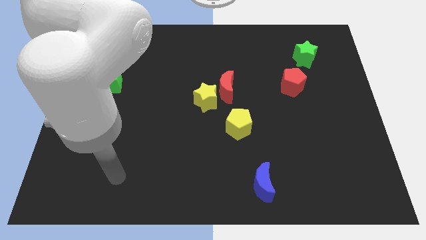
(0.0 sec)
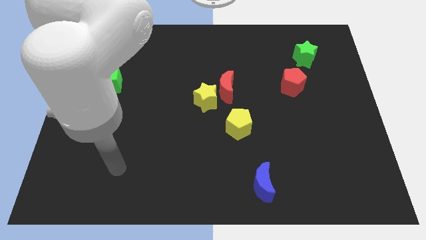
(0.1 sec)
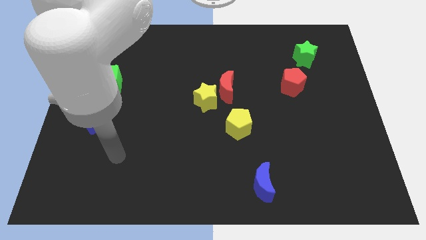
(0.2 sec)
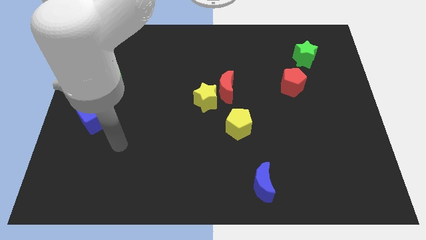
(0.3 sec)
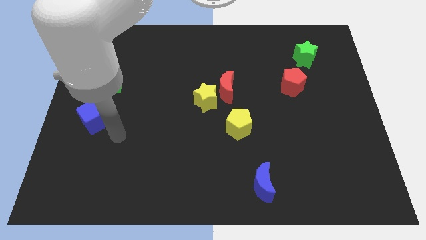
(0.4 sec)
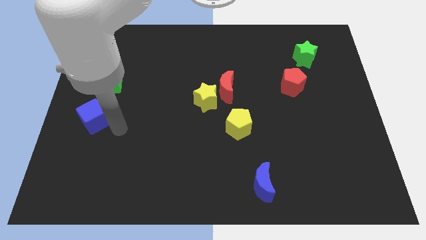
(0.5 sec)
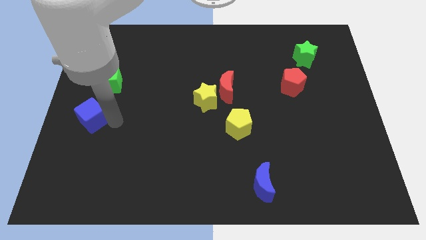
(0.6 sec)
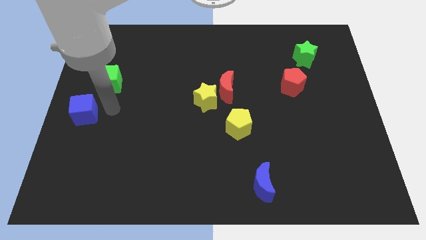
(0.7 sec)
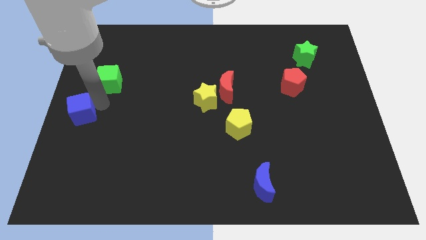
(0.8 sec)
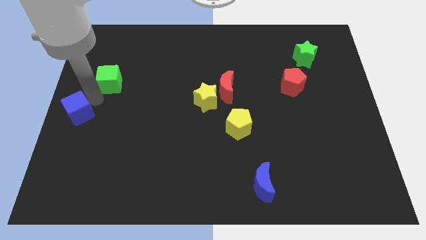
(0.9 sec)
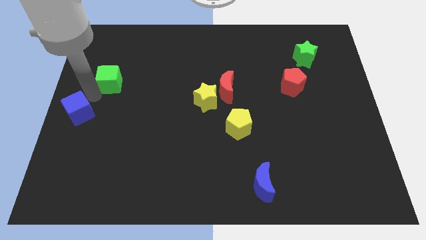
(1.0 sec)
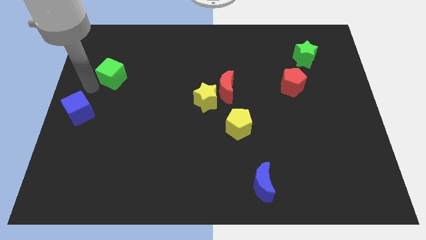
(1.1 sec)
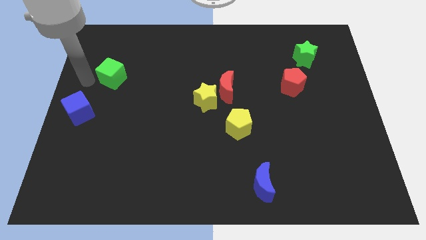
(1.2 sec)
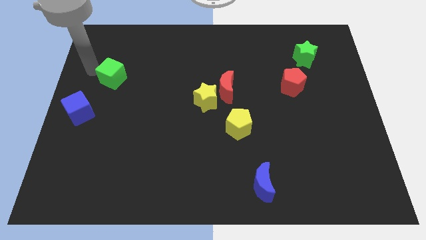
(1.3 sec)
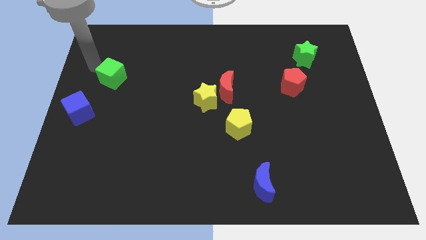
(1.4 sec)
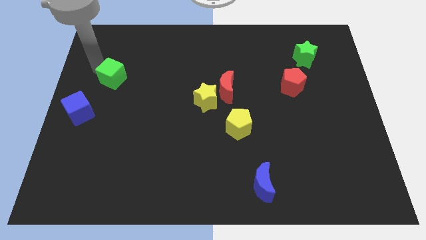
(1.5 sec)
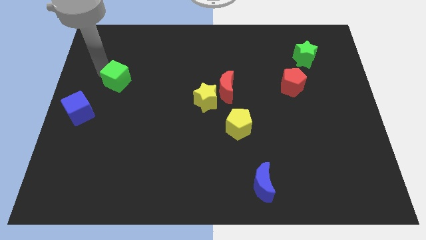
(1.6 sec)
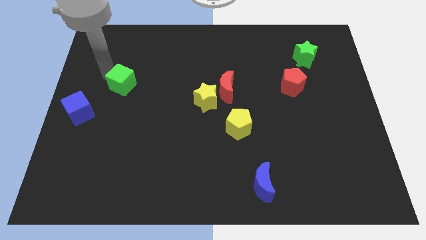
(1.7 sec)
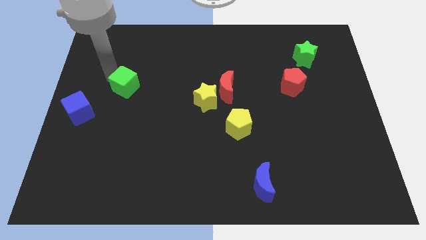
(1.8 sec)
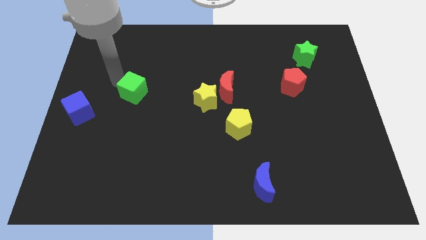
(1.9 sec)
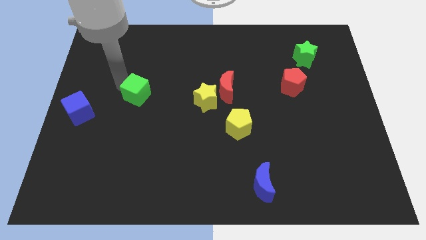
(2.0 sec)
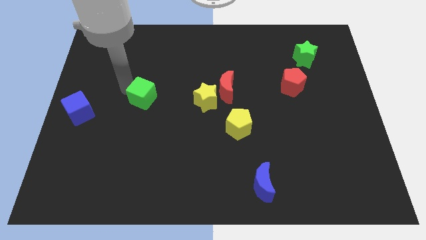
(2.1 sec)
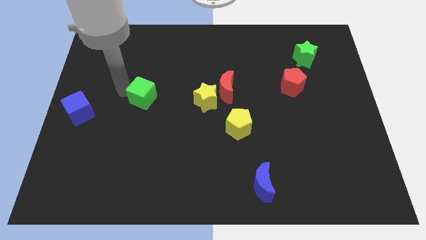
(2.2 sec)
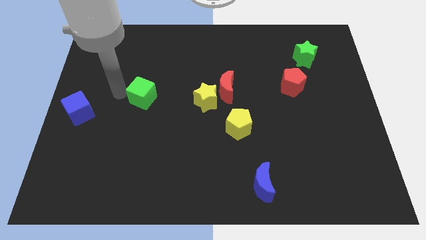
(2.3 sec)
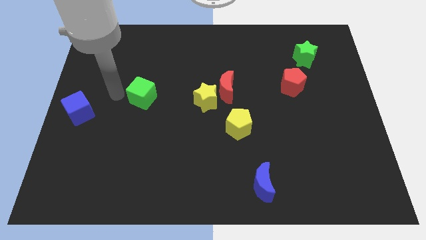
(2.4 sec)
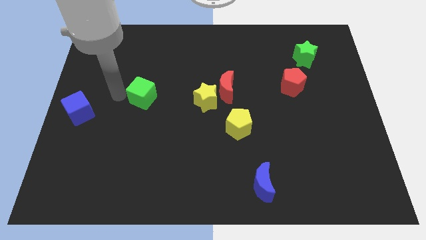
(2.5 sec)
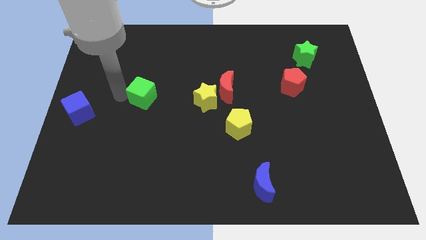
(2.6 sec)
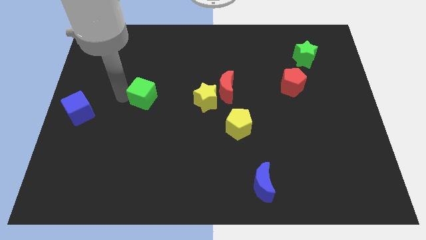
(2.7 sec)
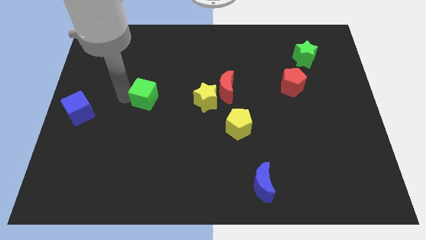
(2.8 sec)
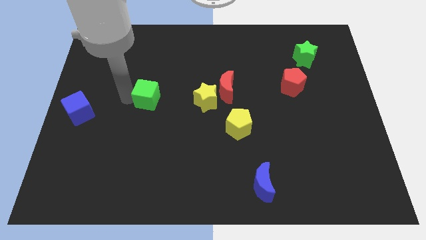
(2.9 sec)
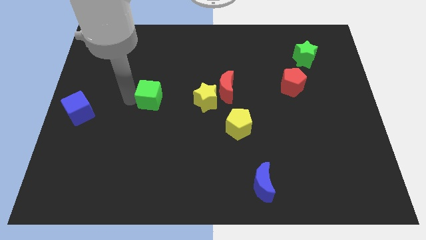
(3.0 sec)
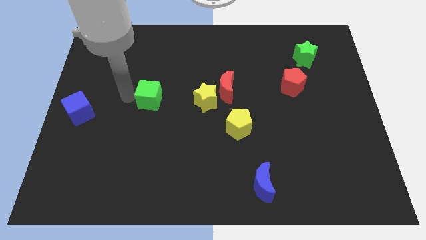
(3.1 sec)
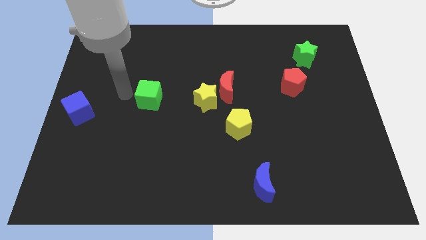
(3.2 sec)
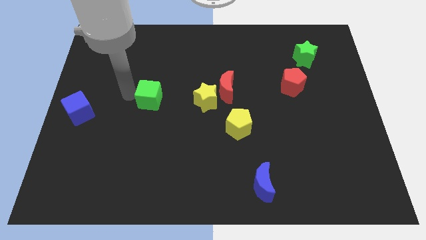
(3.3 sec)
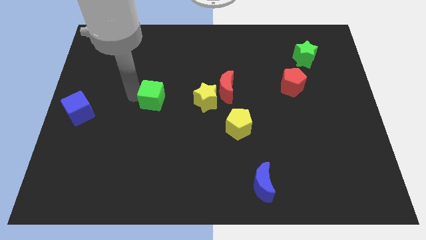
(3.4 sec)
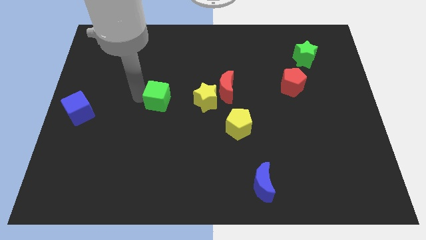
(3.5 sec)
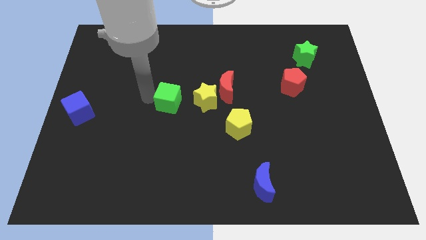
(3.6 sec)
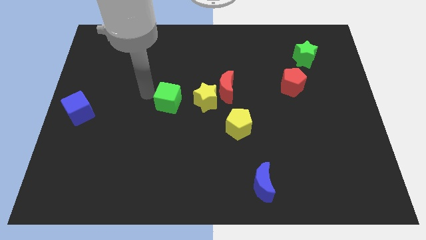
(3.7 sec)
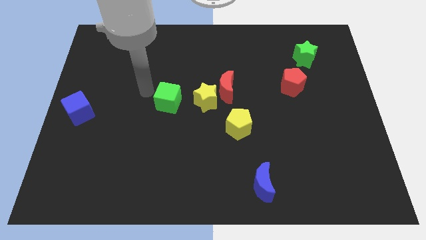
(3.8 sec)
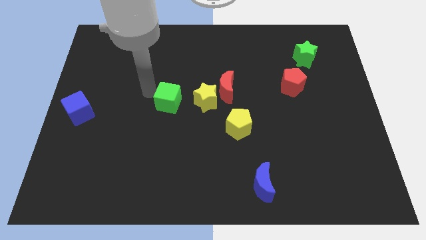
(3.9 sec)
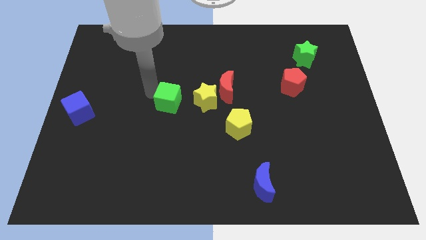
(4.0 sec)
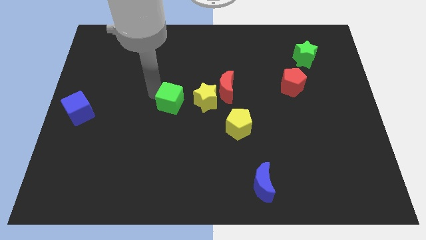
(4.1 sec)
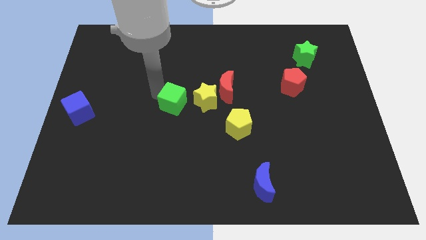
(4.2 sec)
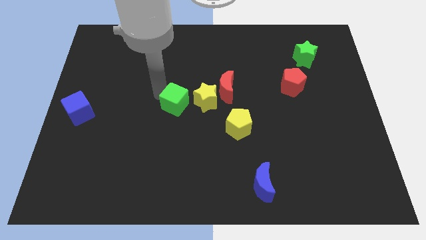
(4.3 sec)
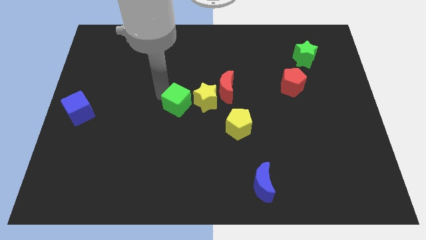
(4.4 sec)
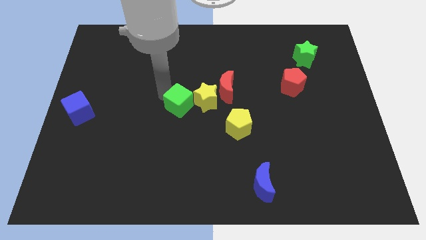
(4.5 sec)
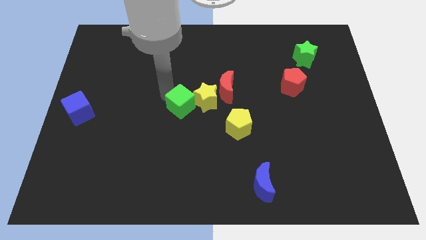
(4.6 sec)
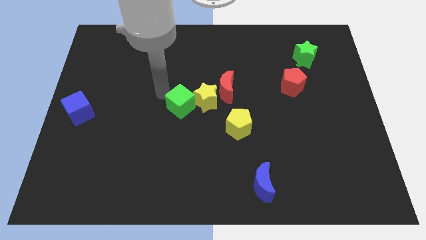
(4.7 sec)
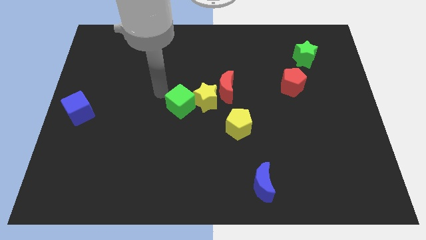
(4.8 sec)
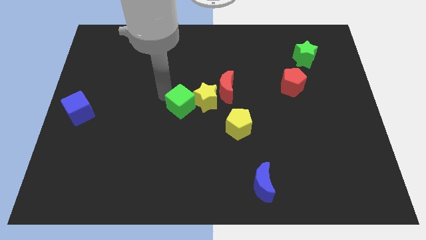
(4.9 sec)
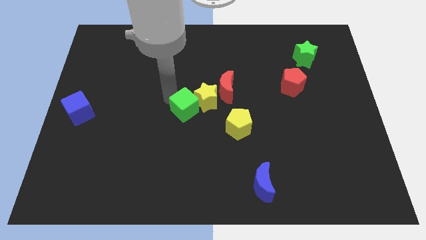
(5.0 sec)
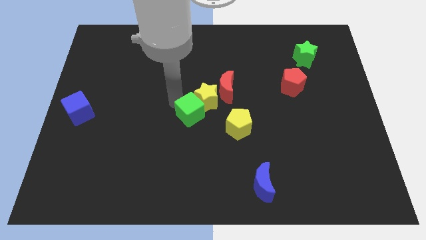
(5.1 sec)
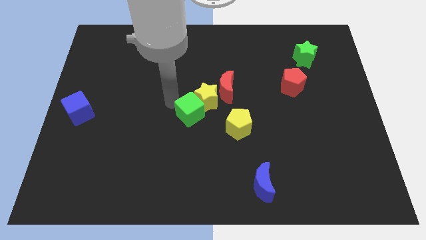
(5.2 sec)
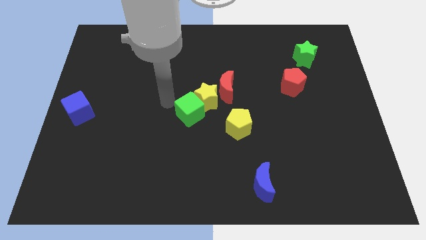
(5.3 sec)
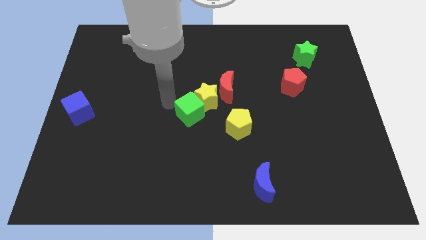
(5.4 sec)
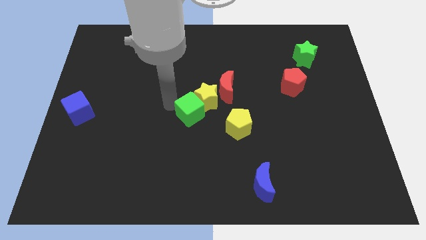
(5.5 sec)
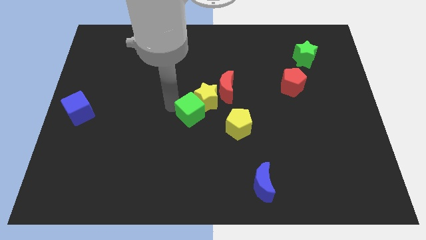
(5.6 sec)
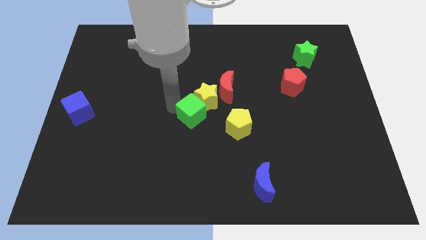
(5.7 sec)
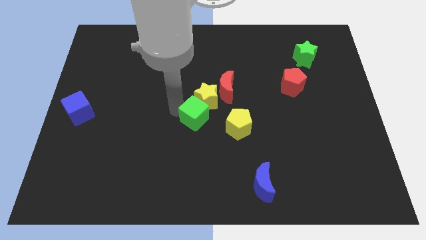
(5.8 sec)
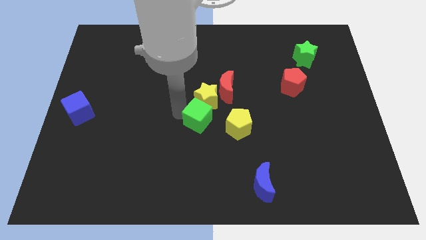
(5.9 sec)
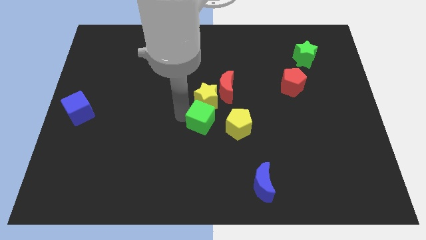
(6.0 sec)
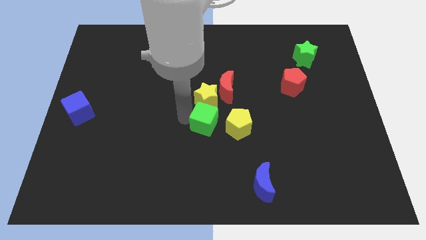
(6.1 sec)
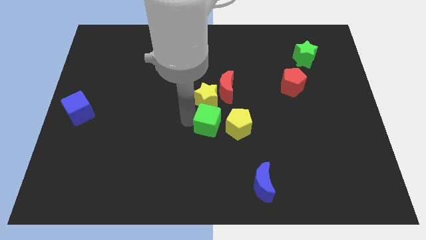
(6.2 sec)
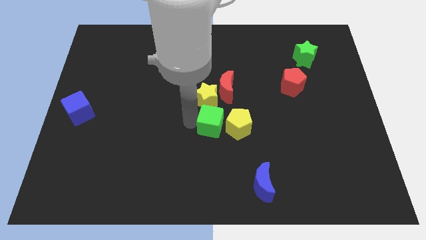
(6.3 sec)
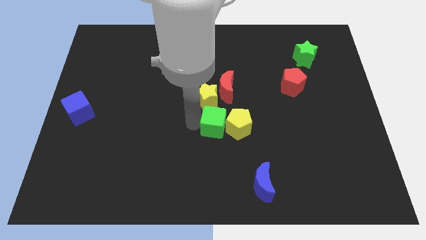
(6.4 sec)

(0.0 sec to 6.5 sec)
move the green cube close to the yellow pentagon
